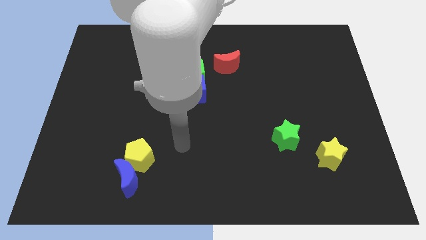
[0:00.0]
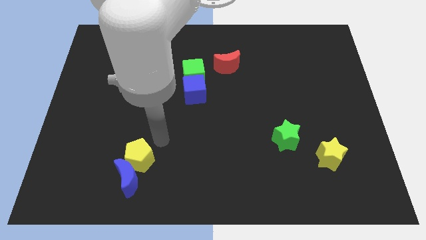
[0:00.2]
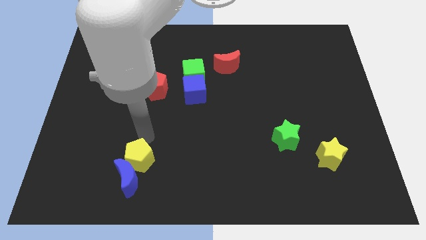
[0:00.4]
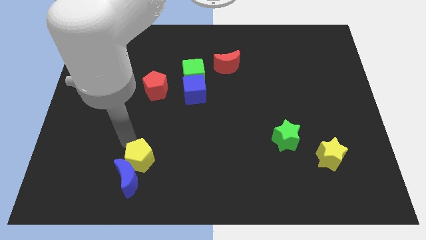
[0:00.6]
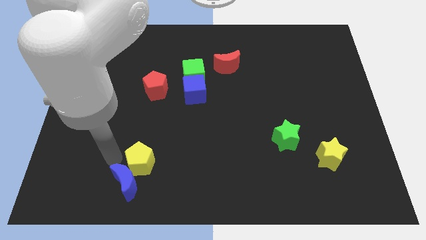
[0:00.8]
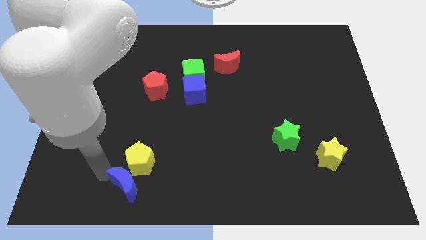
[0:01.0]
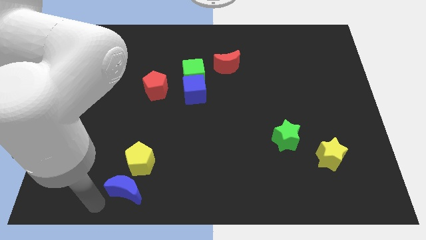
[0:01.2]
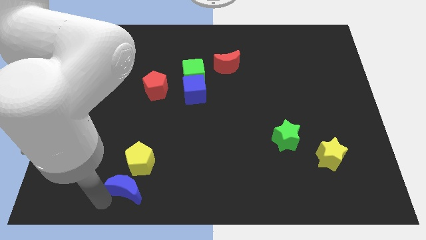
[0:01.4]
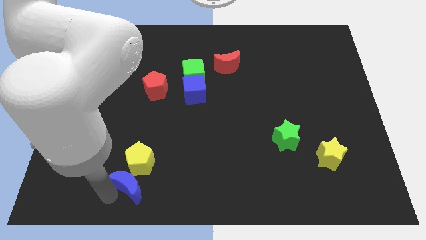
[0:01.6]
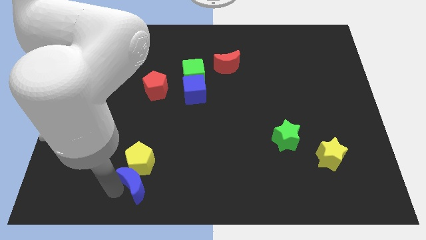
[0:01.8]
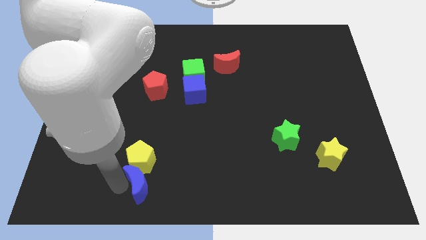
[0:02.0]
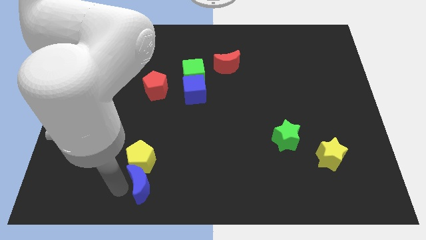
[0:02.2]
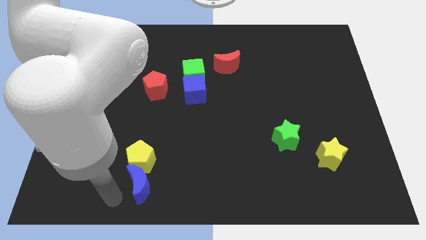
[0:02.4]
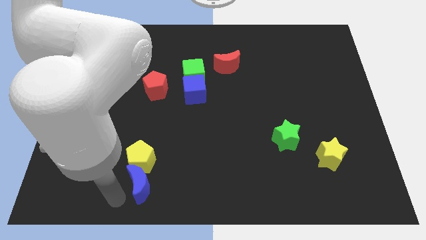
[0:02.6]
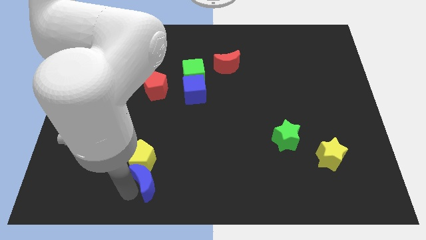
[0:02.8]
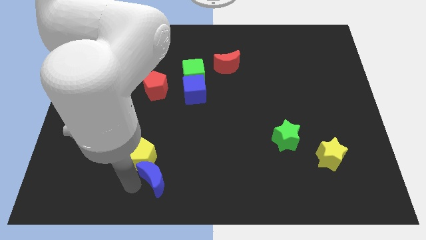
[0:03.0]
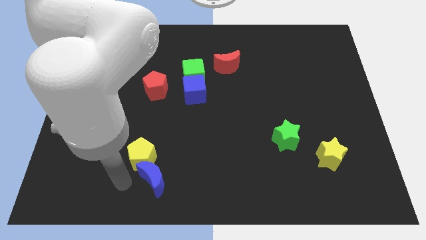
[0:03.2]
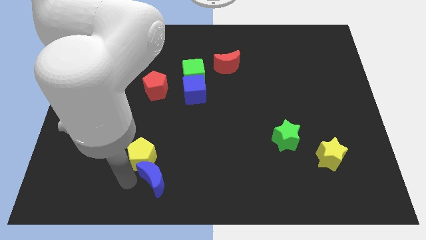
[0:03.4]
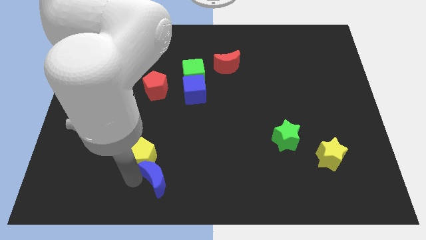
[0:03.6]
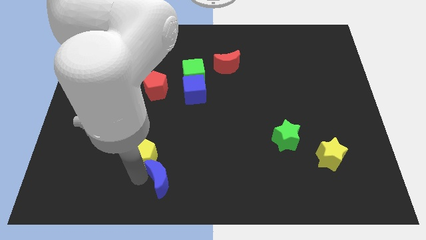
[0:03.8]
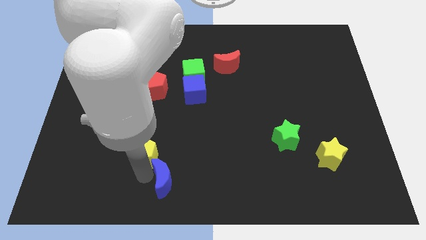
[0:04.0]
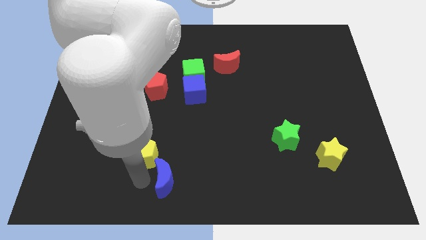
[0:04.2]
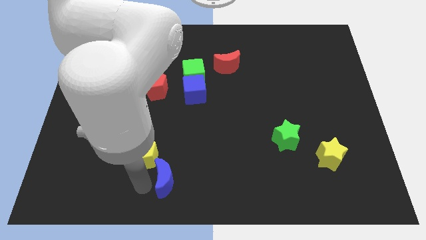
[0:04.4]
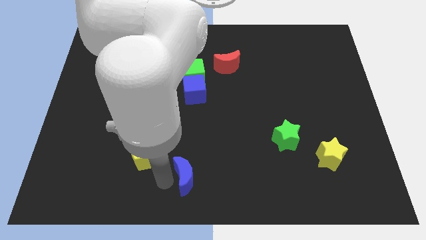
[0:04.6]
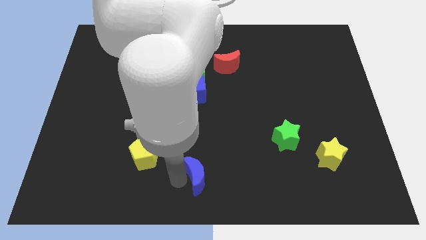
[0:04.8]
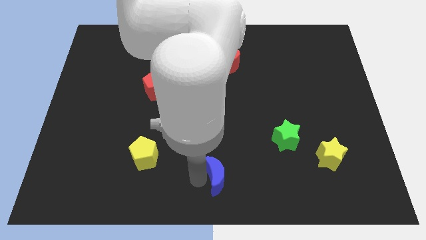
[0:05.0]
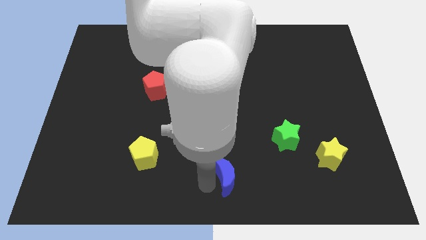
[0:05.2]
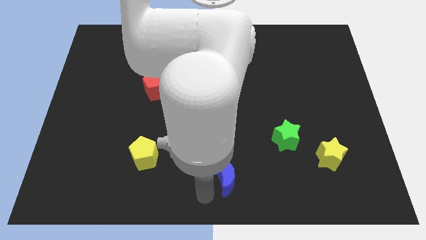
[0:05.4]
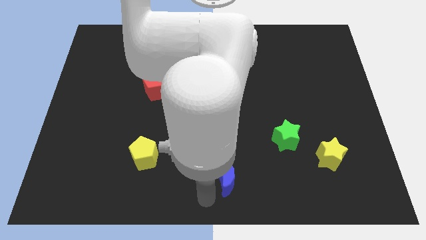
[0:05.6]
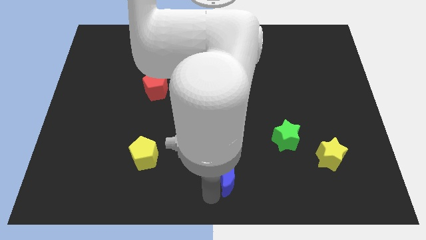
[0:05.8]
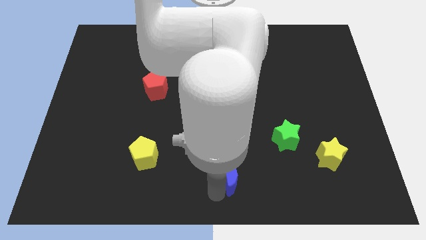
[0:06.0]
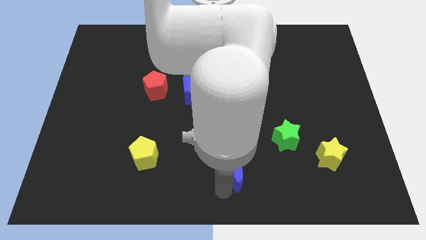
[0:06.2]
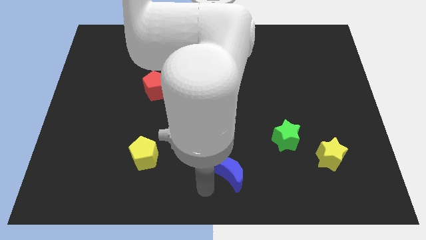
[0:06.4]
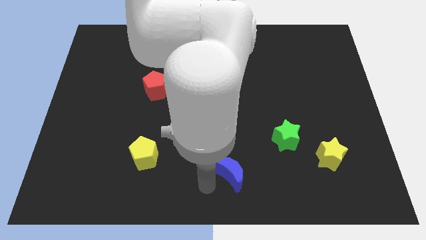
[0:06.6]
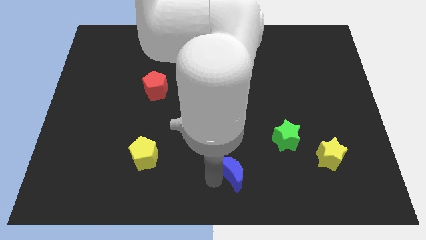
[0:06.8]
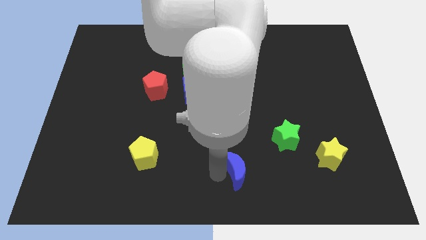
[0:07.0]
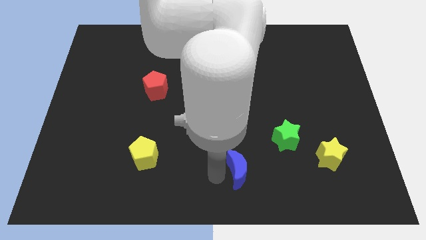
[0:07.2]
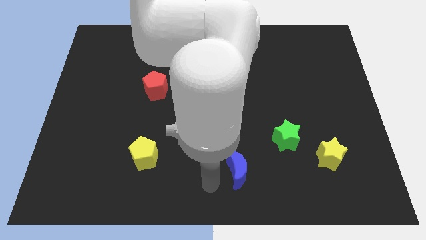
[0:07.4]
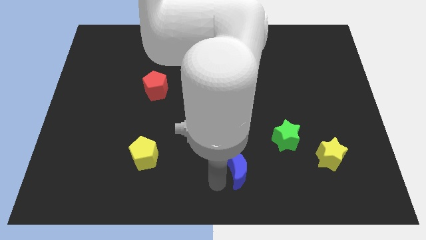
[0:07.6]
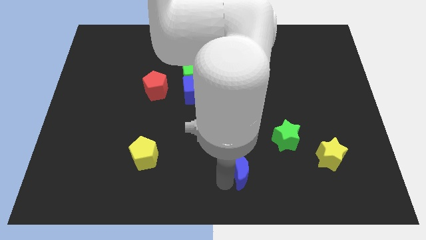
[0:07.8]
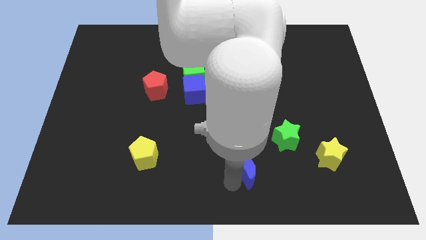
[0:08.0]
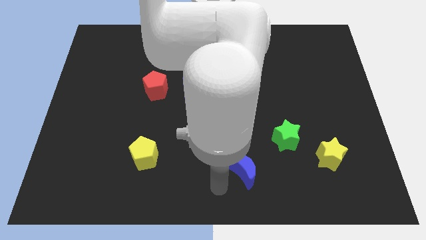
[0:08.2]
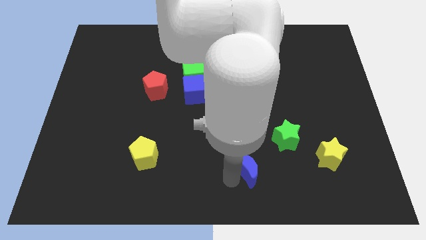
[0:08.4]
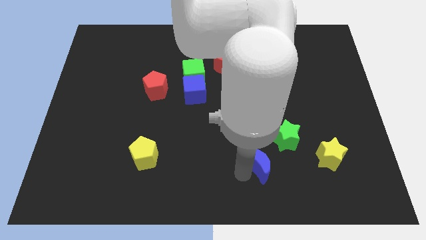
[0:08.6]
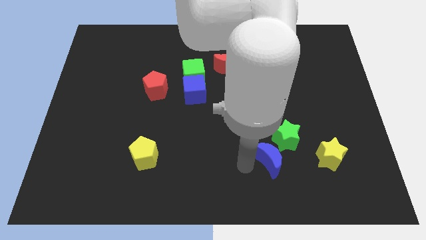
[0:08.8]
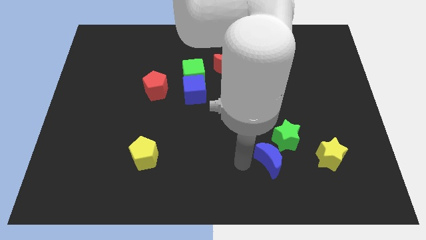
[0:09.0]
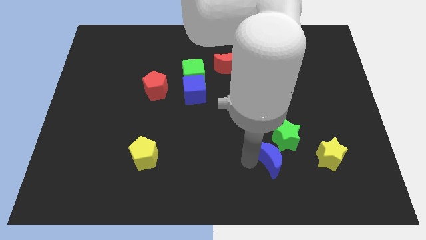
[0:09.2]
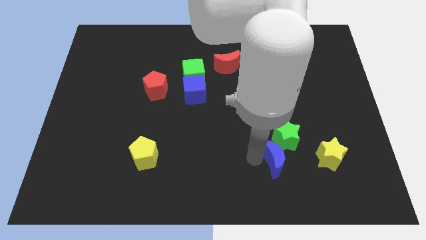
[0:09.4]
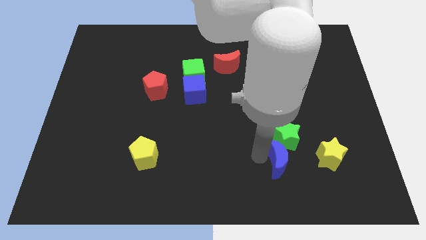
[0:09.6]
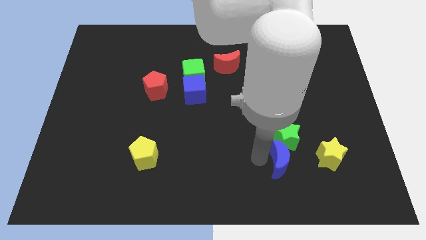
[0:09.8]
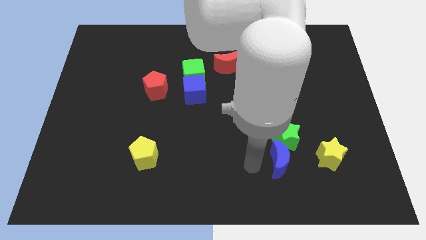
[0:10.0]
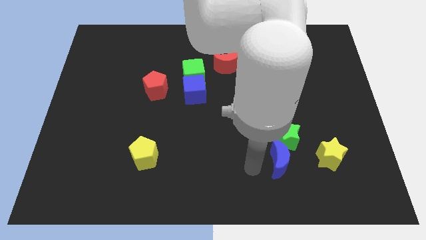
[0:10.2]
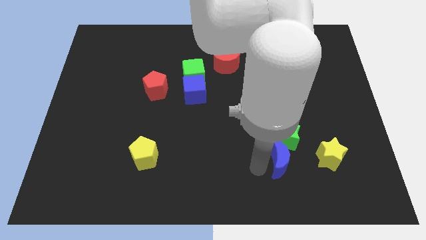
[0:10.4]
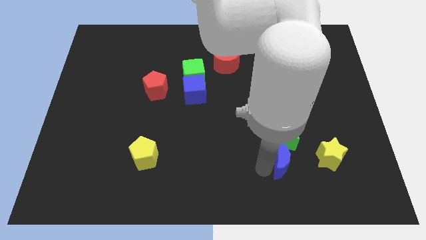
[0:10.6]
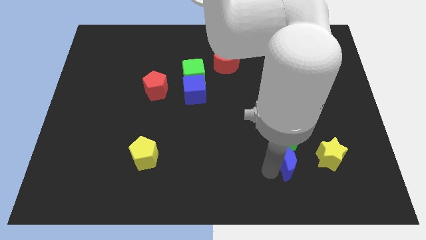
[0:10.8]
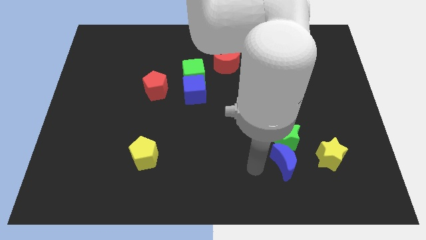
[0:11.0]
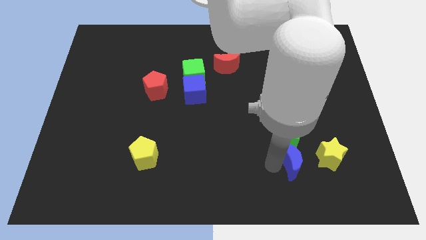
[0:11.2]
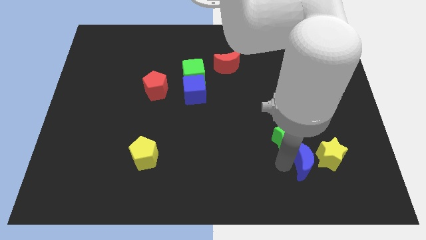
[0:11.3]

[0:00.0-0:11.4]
slide the blue moon next to the yellow star

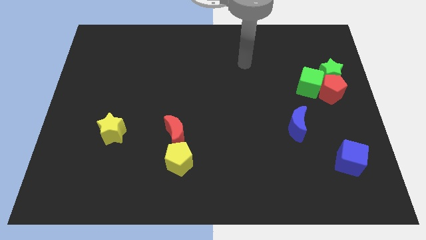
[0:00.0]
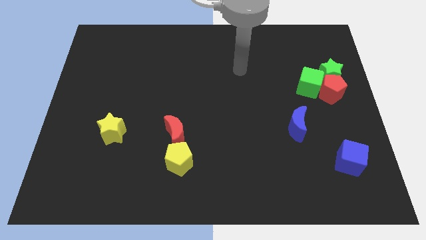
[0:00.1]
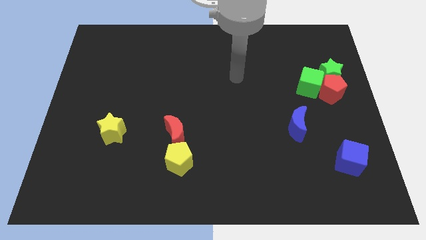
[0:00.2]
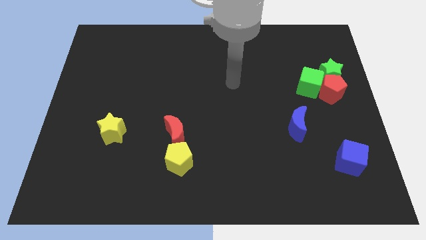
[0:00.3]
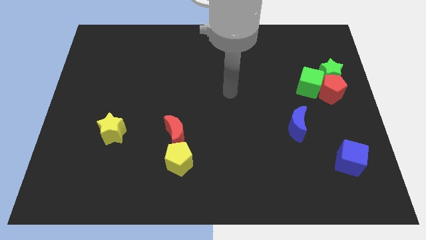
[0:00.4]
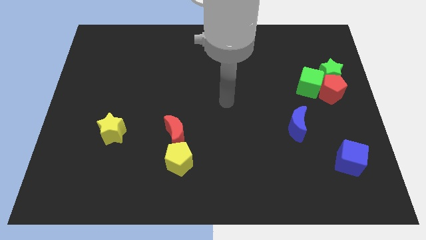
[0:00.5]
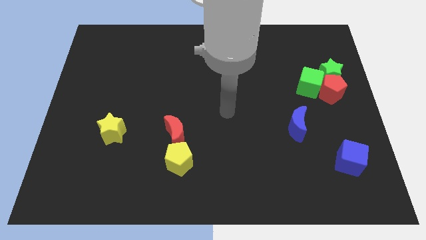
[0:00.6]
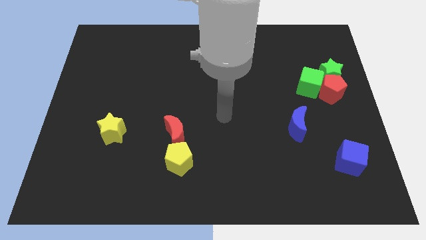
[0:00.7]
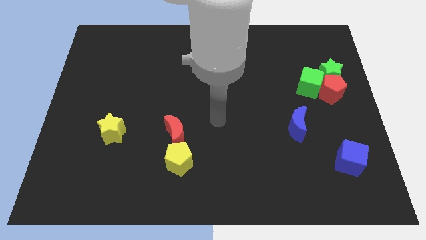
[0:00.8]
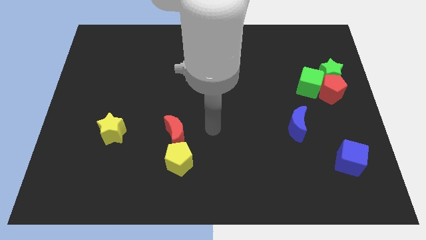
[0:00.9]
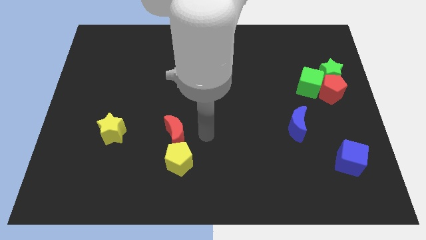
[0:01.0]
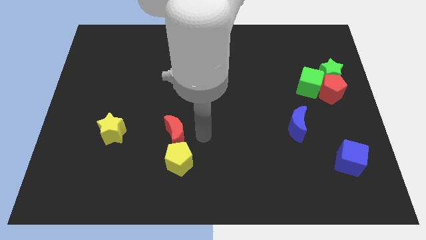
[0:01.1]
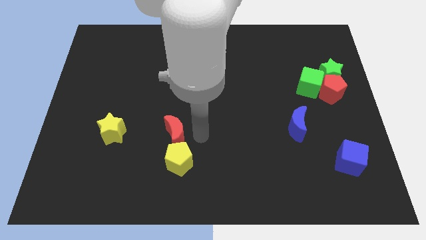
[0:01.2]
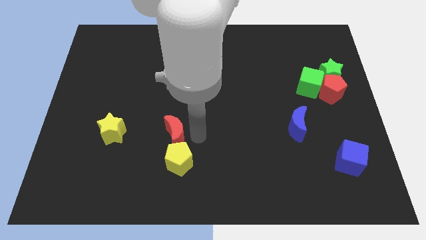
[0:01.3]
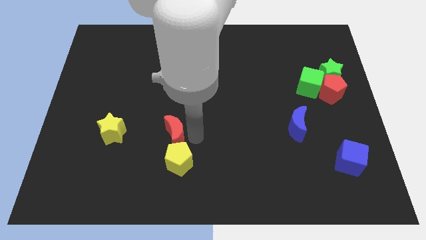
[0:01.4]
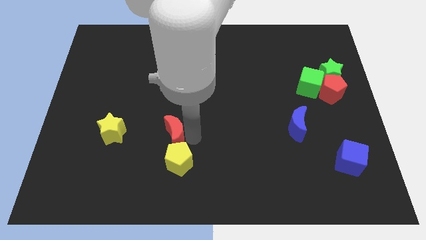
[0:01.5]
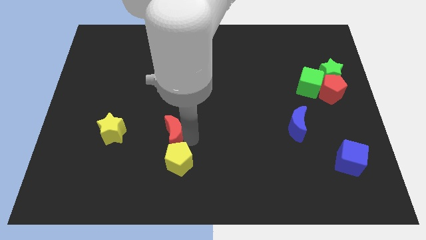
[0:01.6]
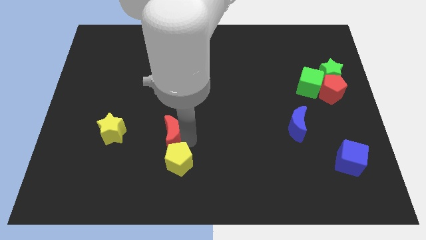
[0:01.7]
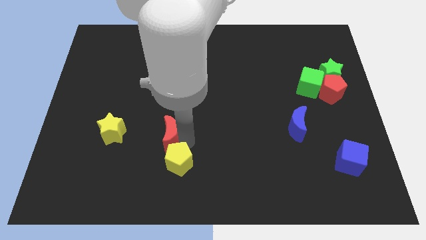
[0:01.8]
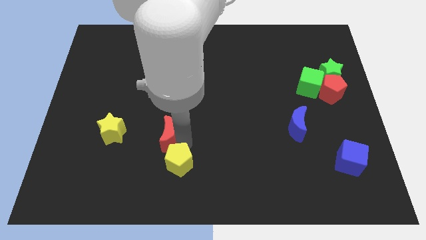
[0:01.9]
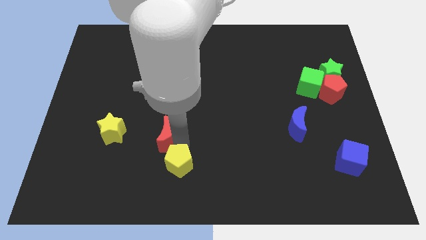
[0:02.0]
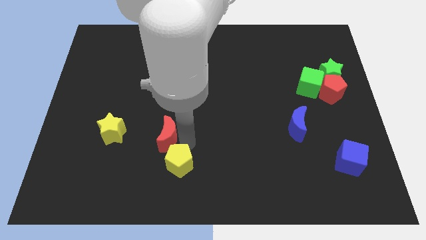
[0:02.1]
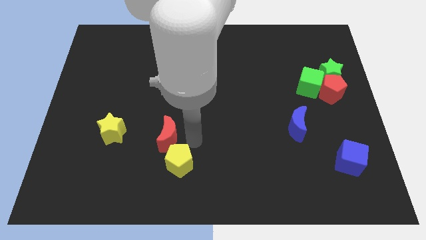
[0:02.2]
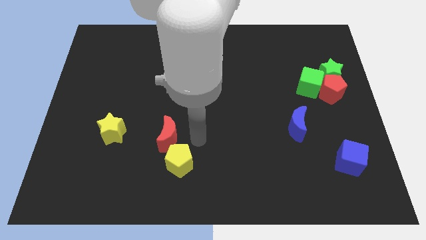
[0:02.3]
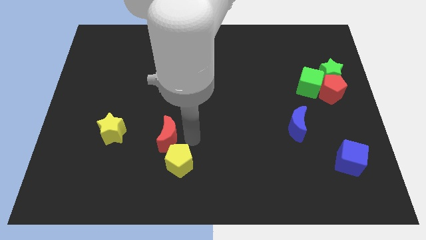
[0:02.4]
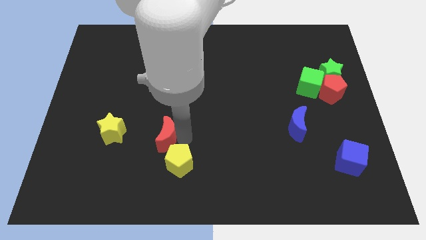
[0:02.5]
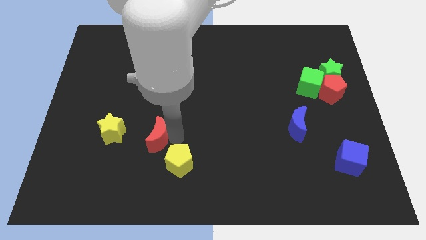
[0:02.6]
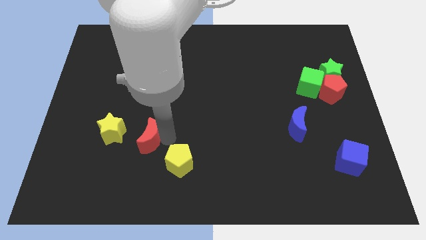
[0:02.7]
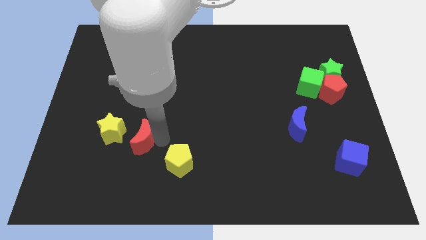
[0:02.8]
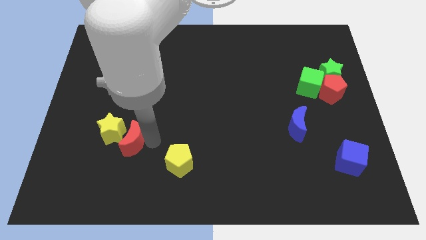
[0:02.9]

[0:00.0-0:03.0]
slide the red moon next to the yellow star
